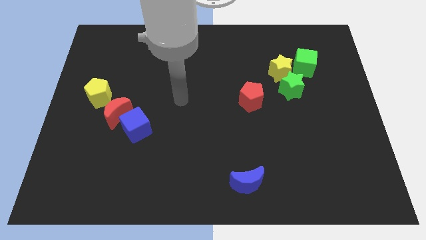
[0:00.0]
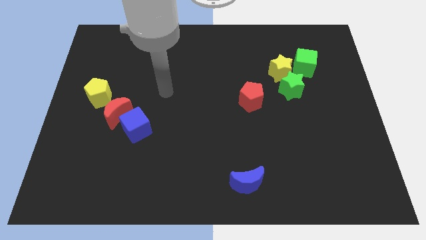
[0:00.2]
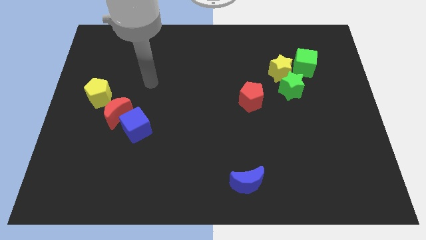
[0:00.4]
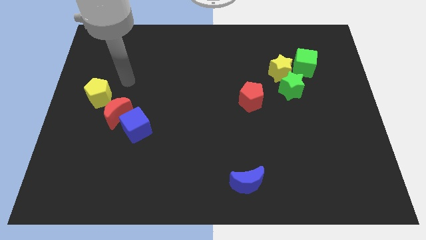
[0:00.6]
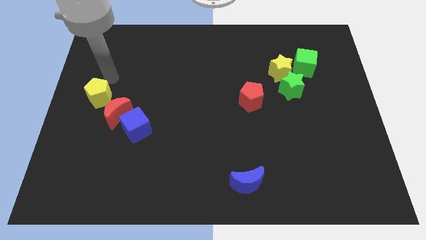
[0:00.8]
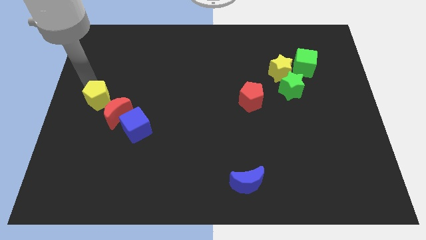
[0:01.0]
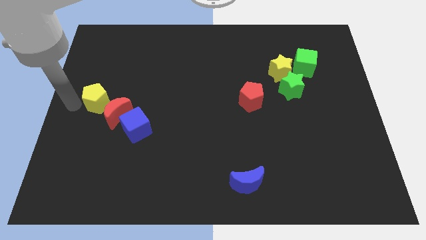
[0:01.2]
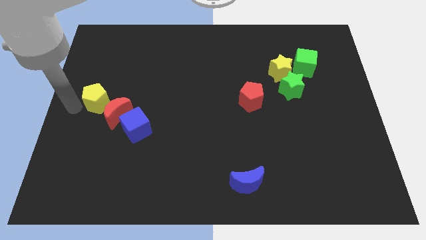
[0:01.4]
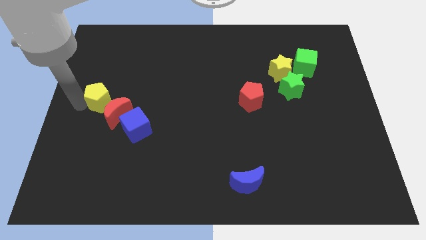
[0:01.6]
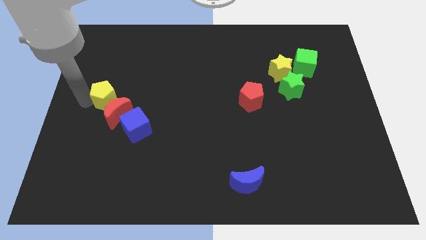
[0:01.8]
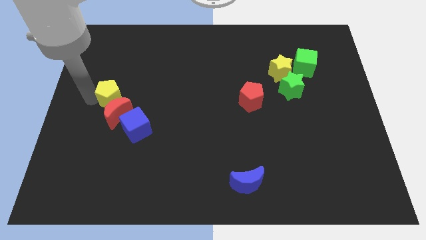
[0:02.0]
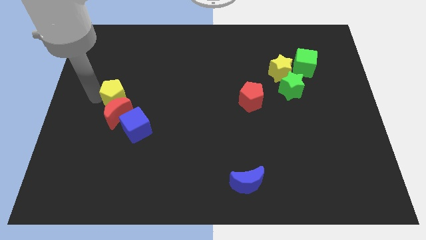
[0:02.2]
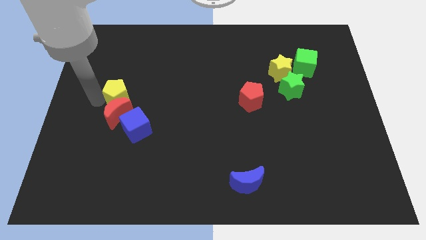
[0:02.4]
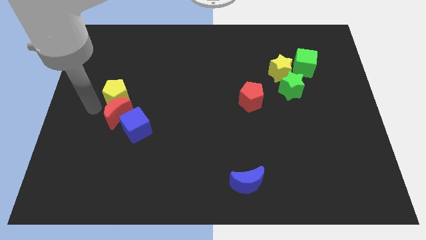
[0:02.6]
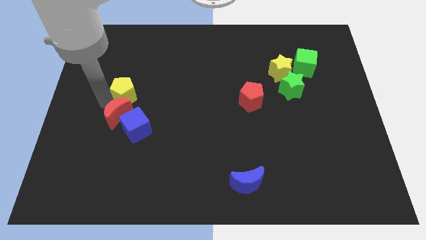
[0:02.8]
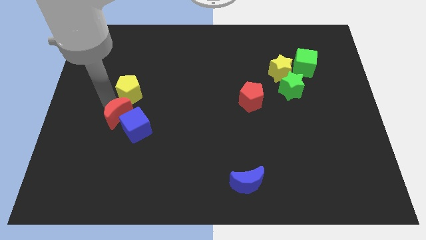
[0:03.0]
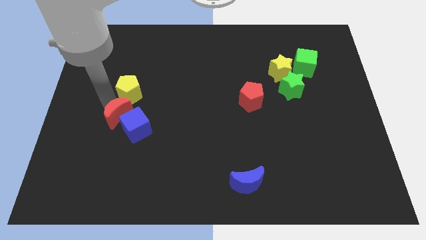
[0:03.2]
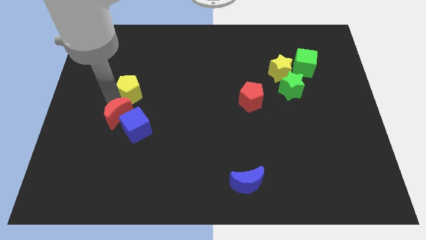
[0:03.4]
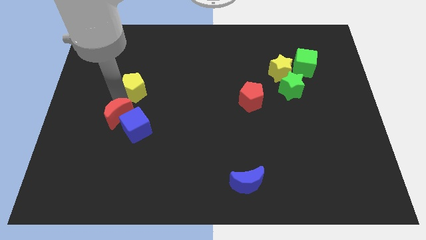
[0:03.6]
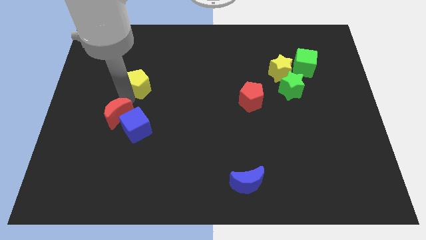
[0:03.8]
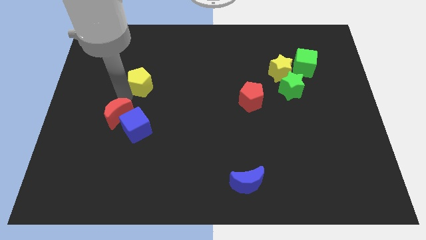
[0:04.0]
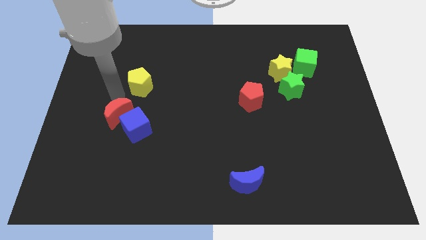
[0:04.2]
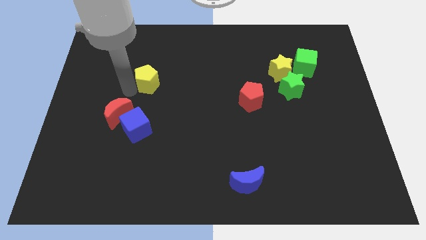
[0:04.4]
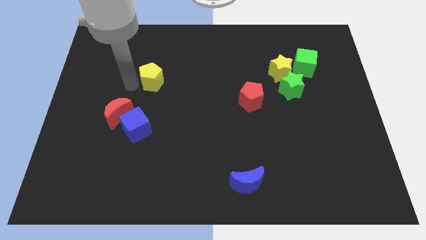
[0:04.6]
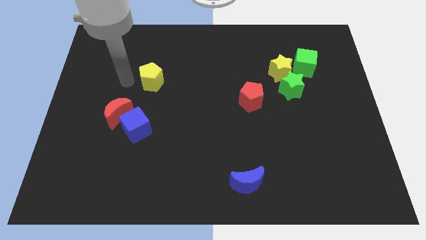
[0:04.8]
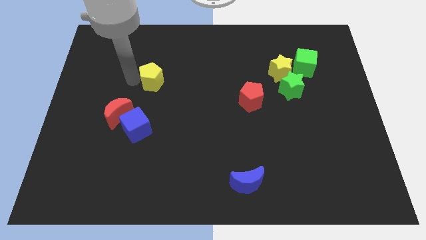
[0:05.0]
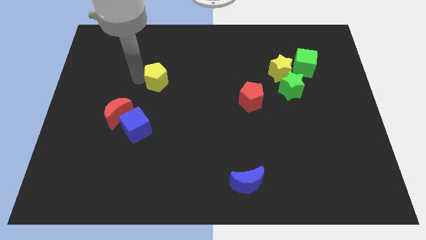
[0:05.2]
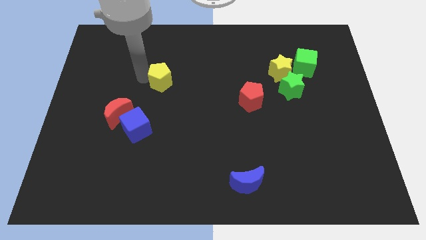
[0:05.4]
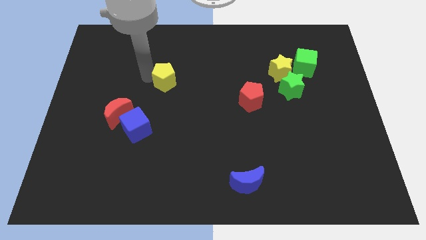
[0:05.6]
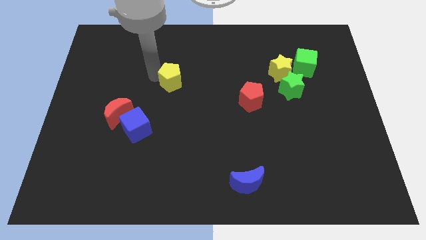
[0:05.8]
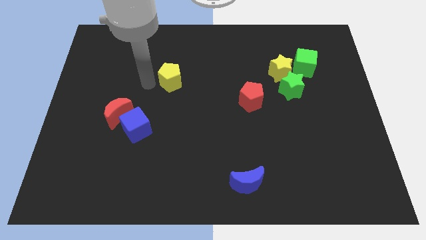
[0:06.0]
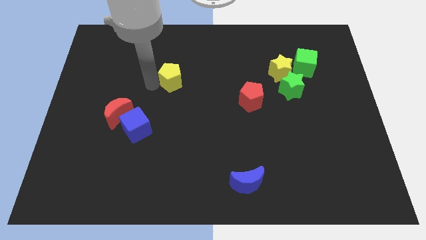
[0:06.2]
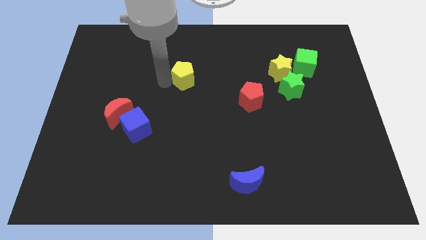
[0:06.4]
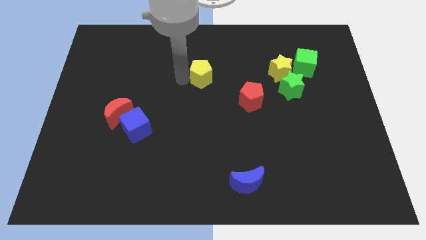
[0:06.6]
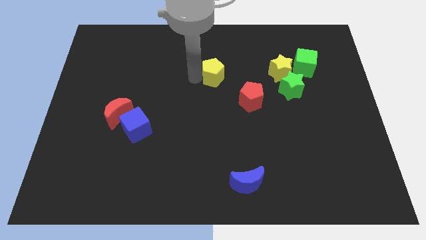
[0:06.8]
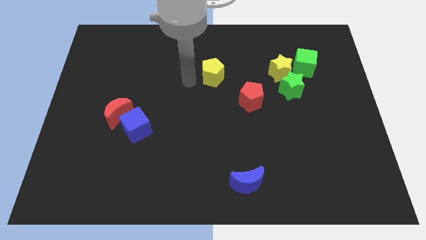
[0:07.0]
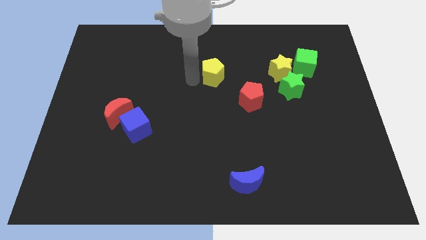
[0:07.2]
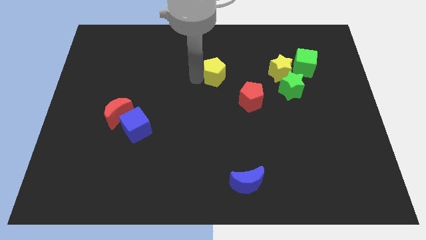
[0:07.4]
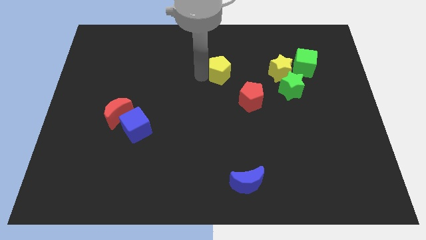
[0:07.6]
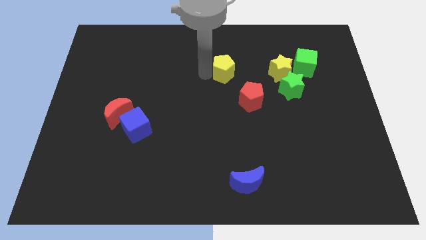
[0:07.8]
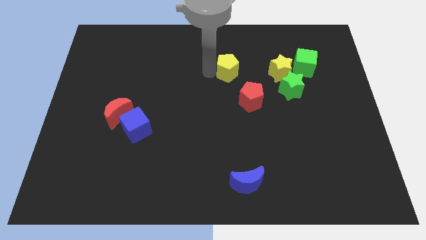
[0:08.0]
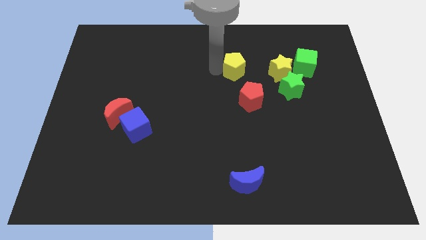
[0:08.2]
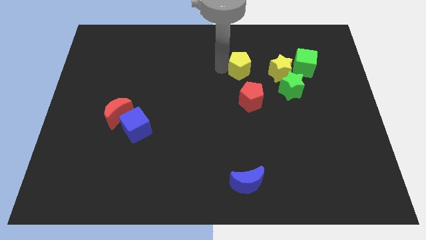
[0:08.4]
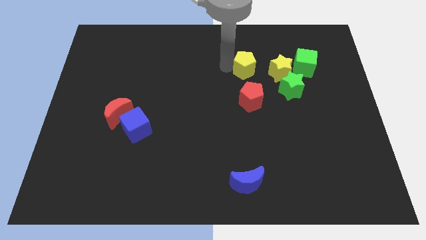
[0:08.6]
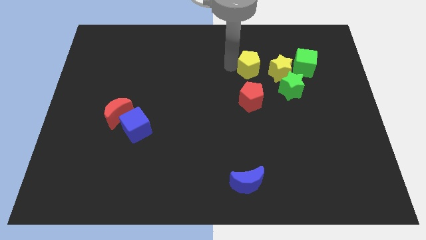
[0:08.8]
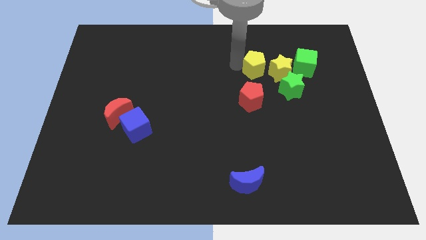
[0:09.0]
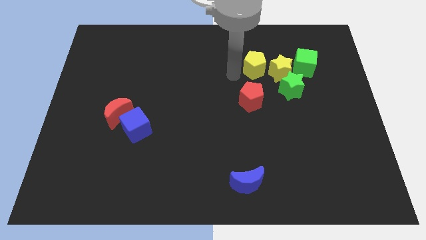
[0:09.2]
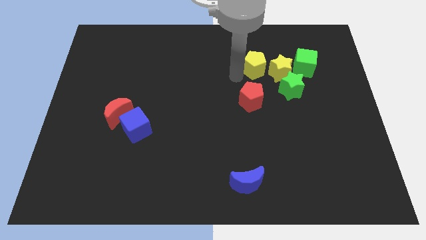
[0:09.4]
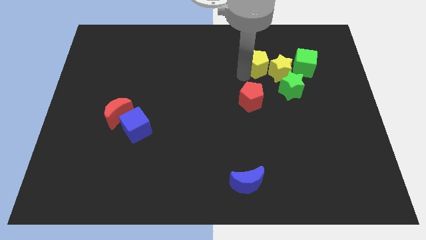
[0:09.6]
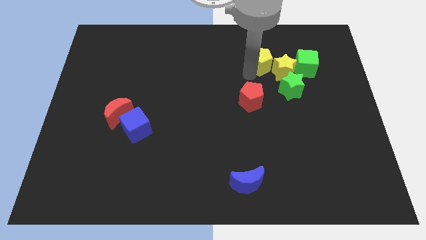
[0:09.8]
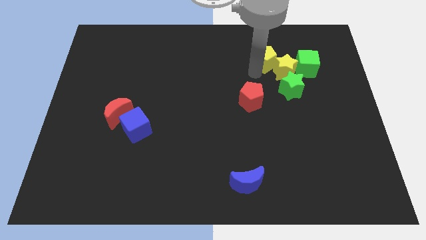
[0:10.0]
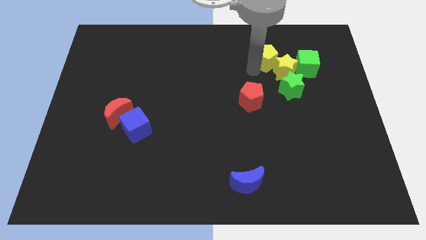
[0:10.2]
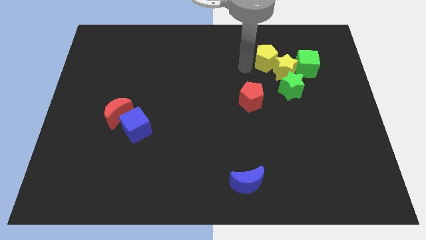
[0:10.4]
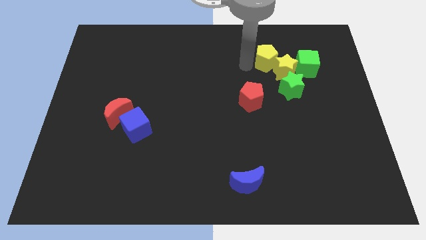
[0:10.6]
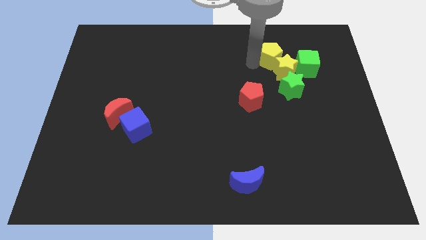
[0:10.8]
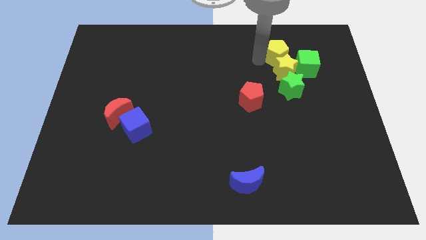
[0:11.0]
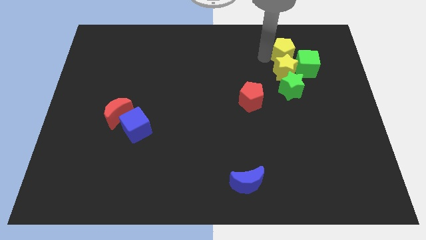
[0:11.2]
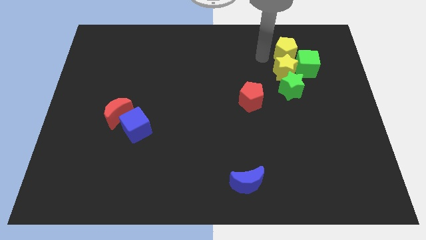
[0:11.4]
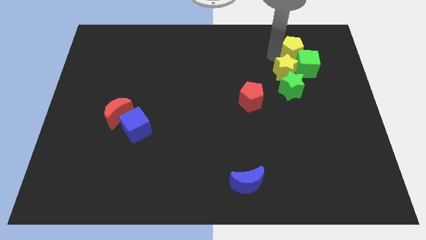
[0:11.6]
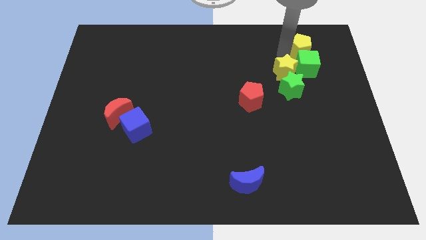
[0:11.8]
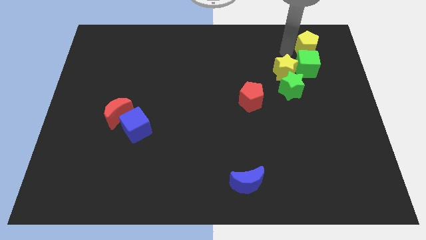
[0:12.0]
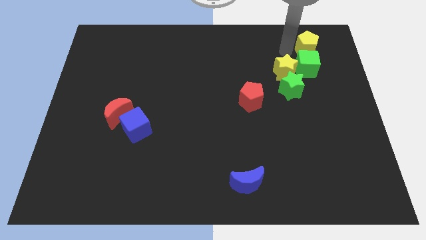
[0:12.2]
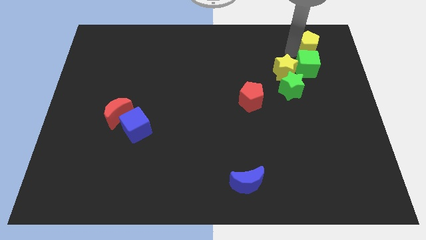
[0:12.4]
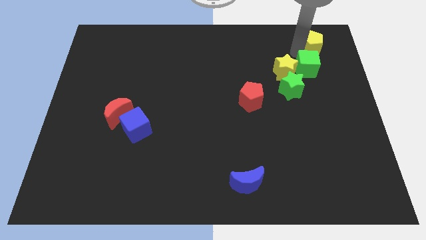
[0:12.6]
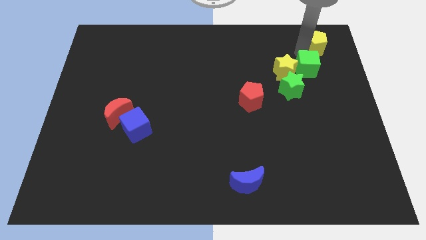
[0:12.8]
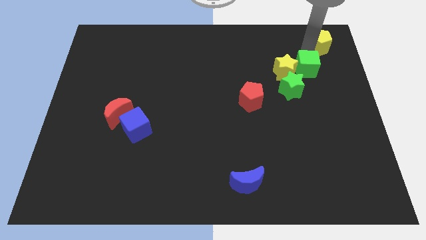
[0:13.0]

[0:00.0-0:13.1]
slide the yellow pentagon to the top right of the board

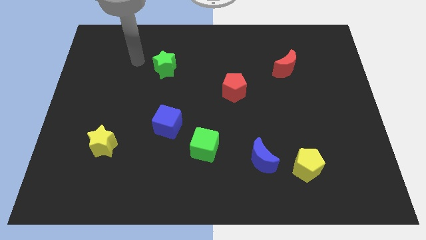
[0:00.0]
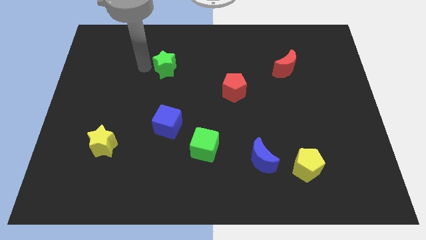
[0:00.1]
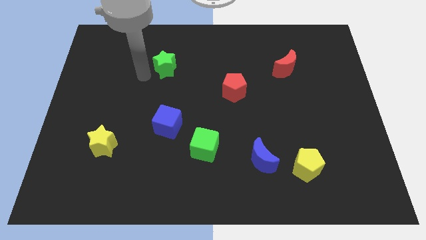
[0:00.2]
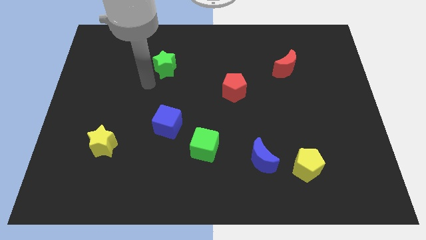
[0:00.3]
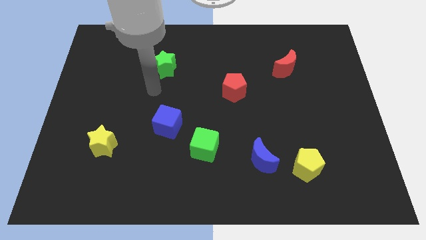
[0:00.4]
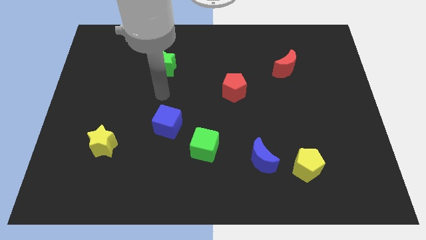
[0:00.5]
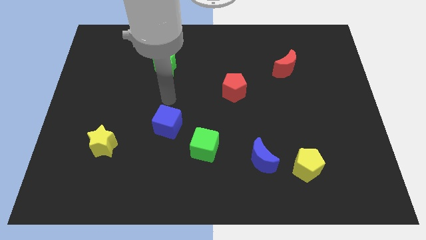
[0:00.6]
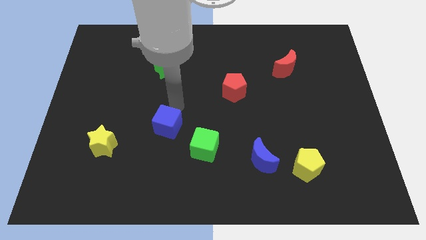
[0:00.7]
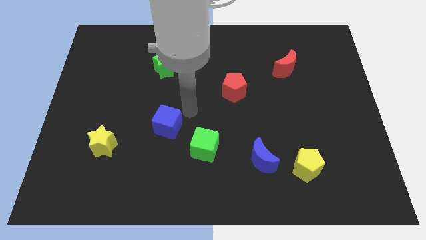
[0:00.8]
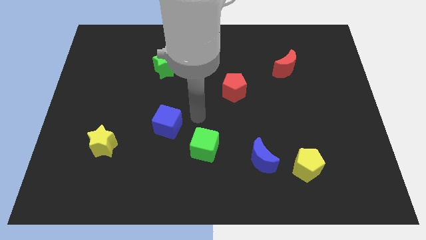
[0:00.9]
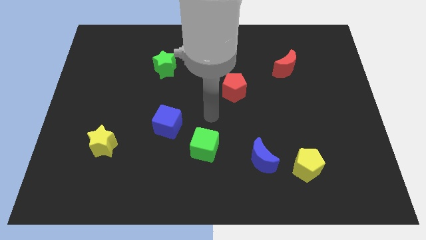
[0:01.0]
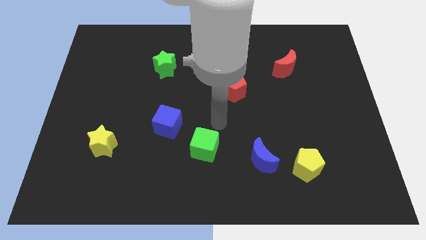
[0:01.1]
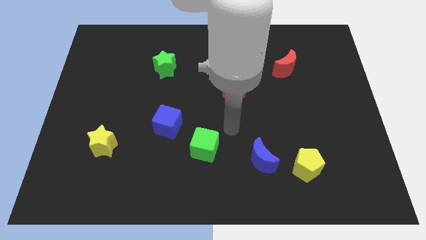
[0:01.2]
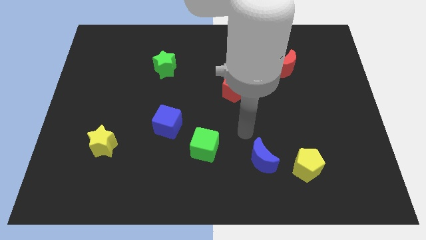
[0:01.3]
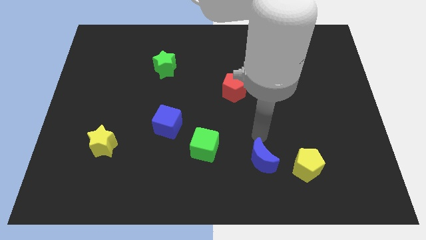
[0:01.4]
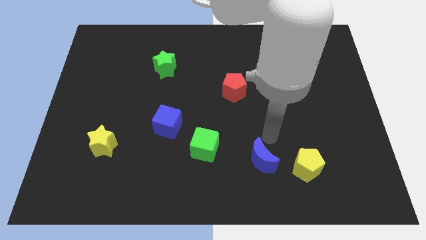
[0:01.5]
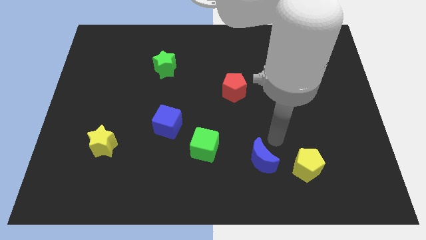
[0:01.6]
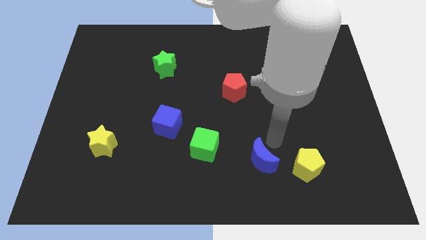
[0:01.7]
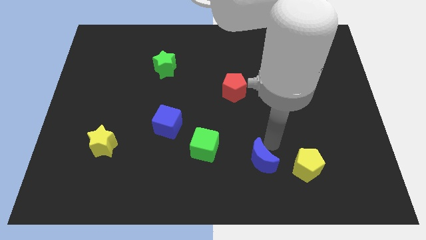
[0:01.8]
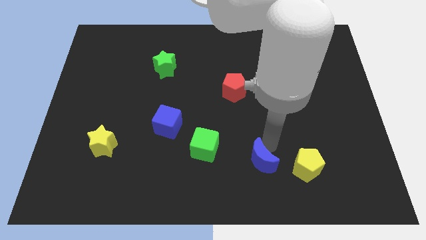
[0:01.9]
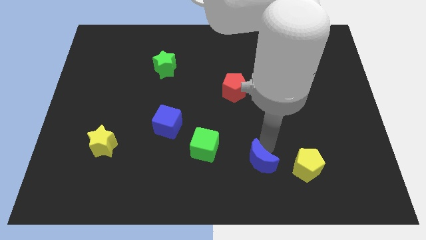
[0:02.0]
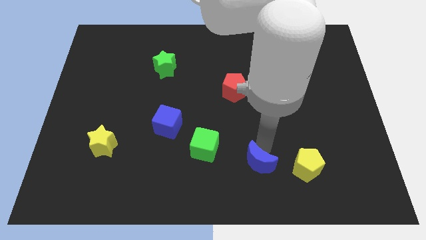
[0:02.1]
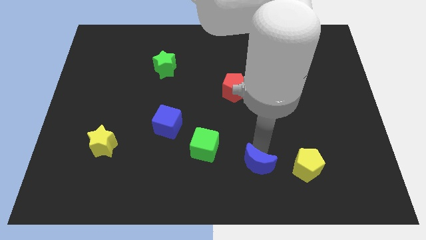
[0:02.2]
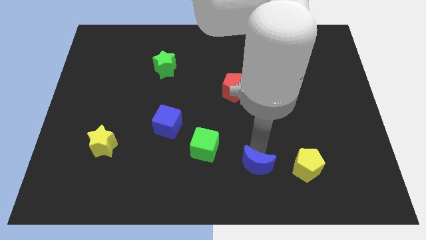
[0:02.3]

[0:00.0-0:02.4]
put the blue moon to the bottom side
